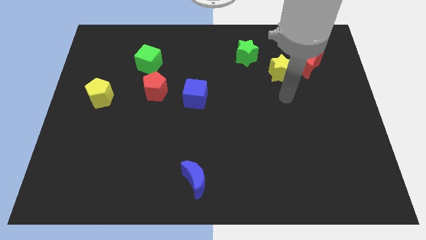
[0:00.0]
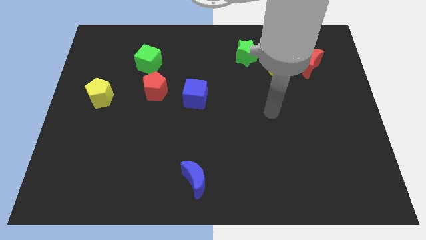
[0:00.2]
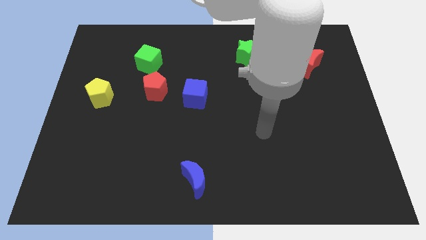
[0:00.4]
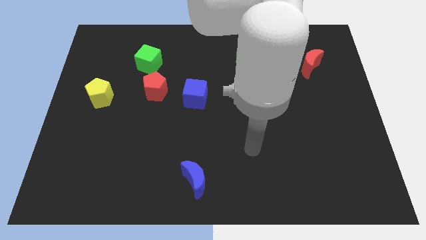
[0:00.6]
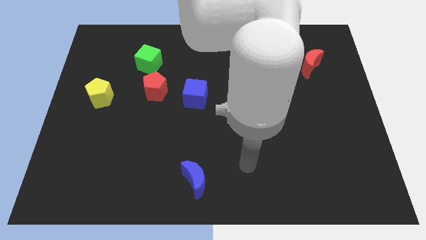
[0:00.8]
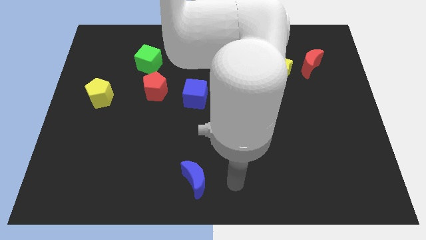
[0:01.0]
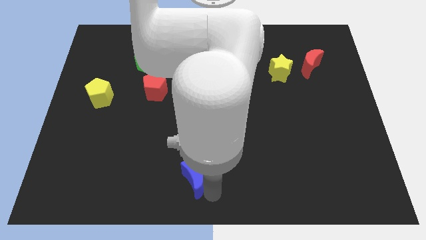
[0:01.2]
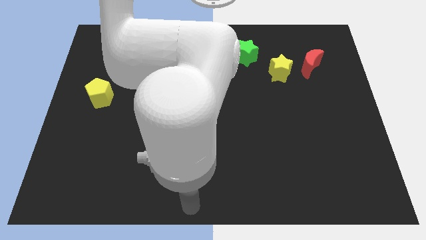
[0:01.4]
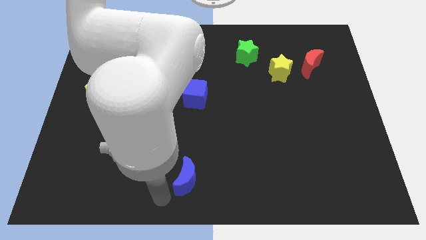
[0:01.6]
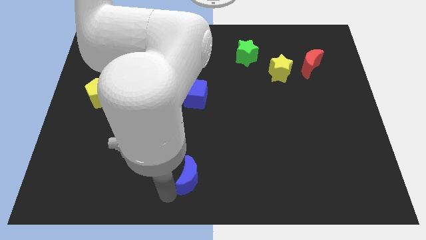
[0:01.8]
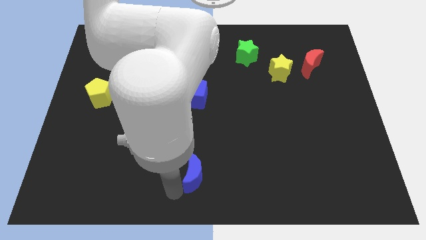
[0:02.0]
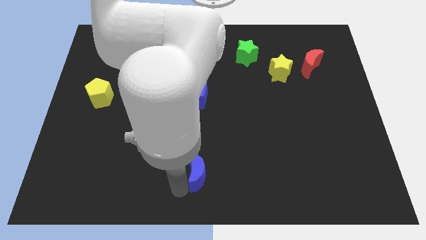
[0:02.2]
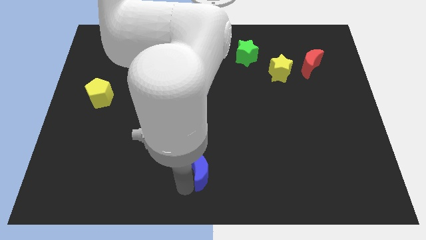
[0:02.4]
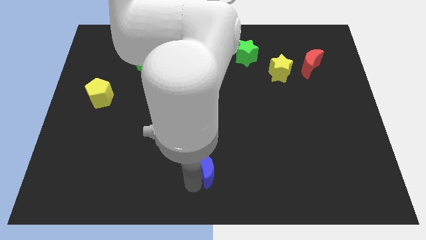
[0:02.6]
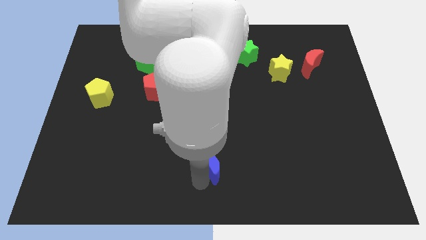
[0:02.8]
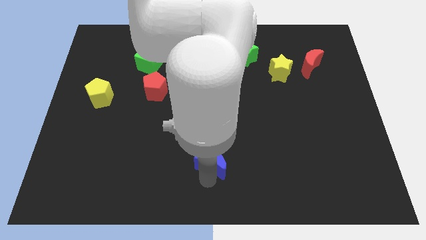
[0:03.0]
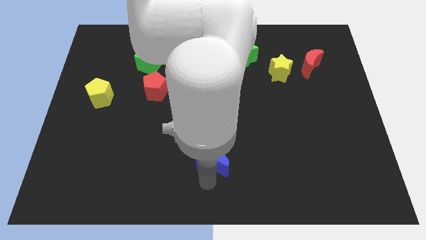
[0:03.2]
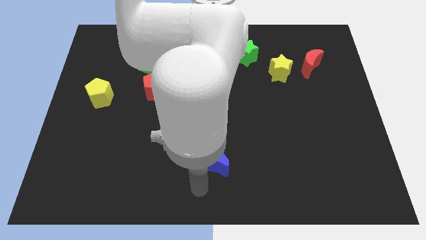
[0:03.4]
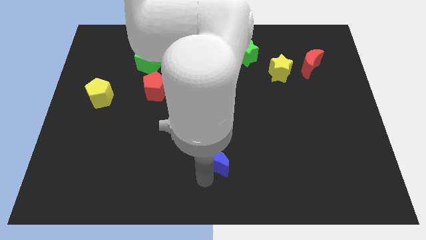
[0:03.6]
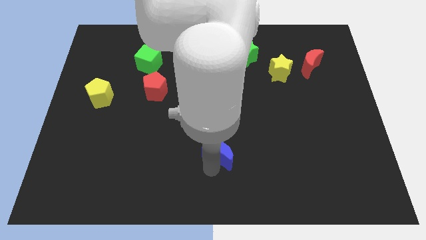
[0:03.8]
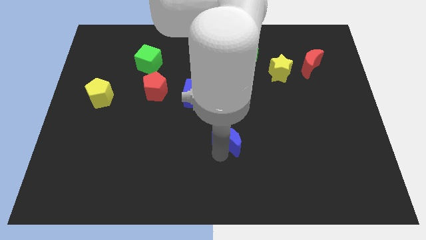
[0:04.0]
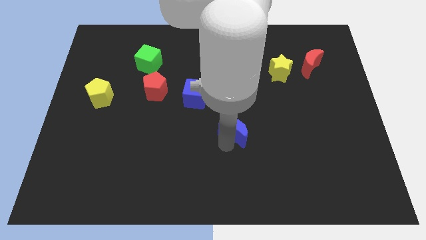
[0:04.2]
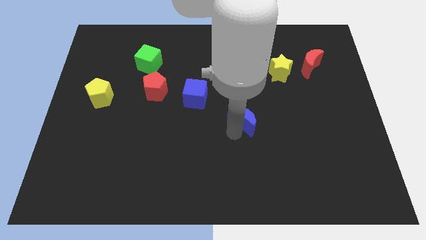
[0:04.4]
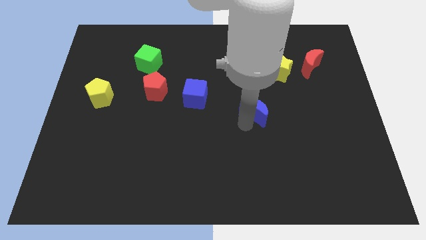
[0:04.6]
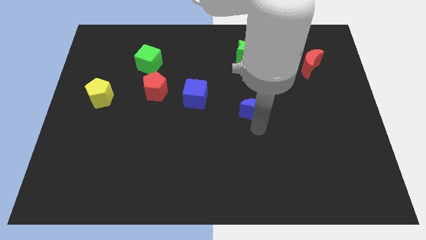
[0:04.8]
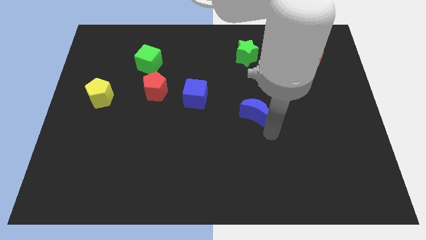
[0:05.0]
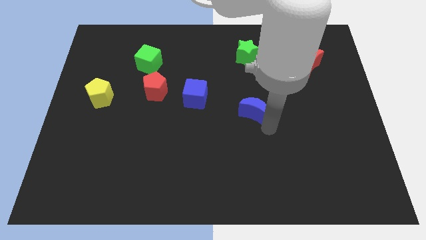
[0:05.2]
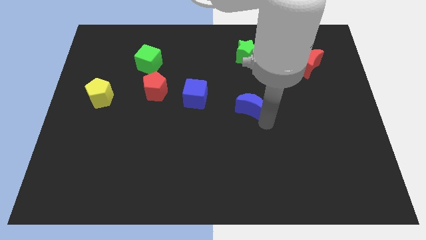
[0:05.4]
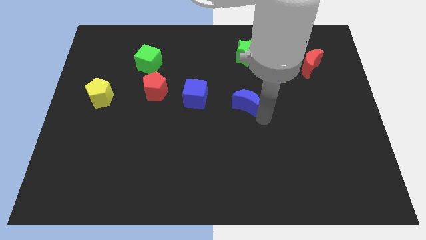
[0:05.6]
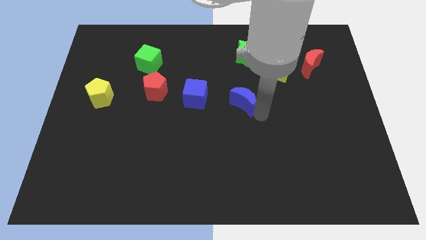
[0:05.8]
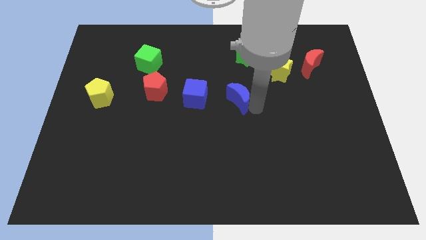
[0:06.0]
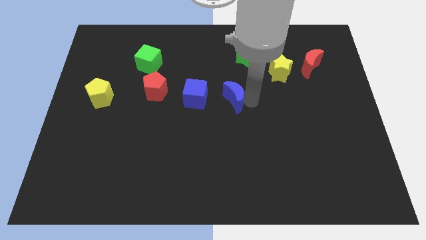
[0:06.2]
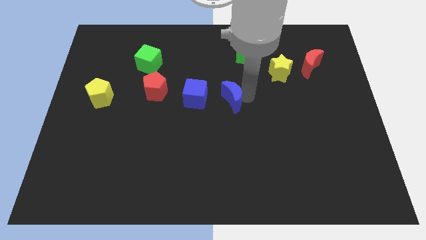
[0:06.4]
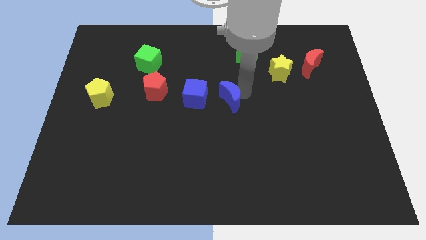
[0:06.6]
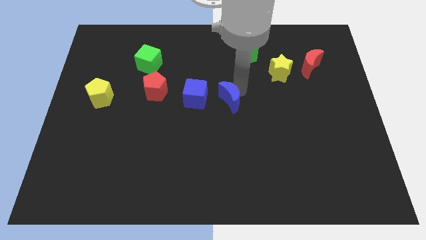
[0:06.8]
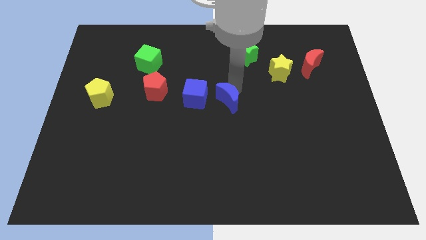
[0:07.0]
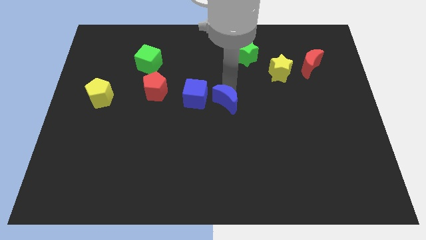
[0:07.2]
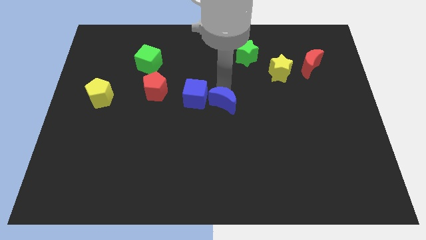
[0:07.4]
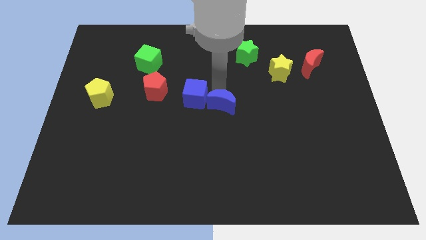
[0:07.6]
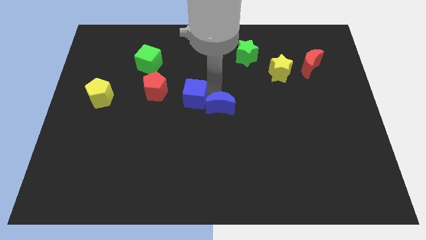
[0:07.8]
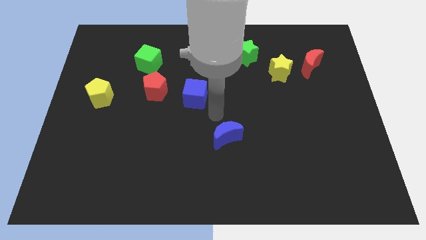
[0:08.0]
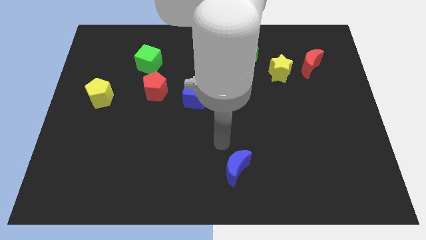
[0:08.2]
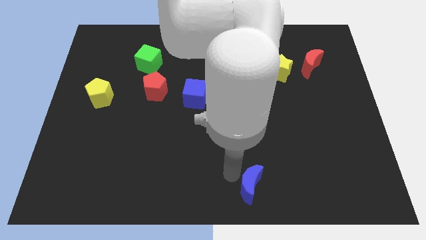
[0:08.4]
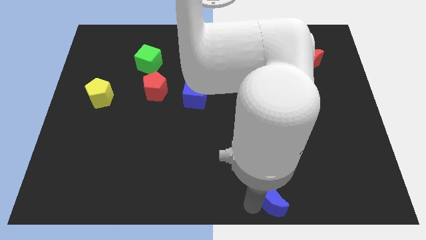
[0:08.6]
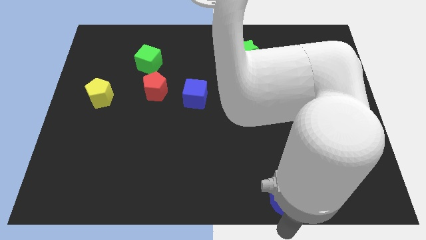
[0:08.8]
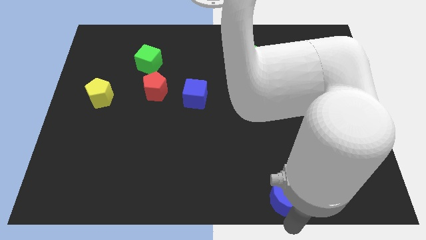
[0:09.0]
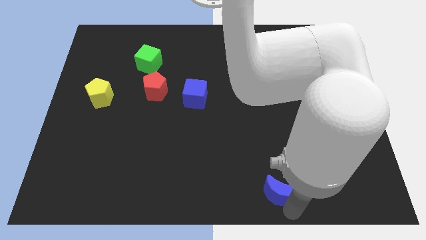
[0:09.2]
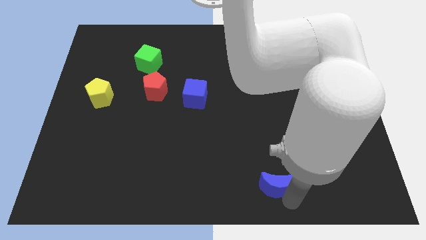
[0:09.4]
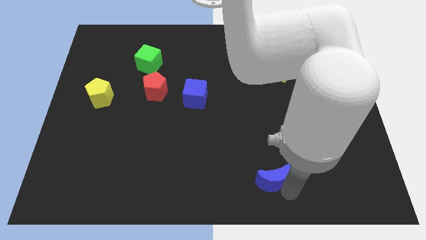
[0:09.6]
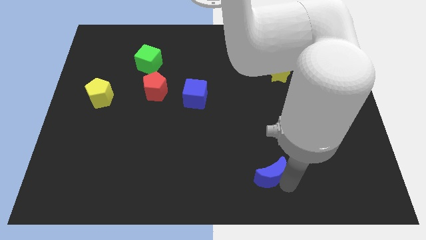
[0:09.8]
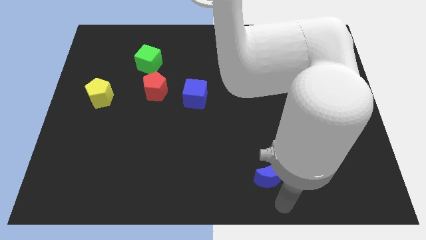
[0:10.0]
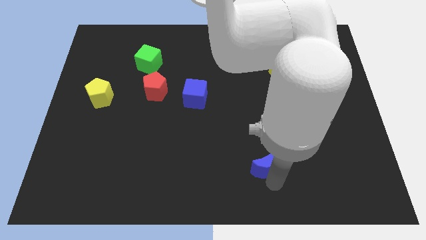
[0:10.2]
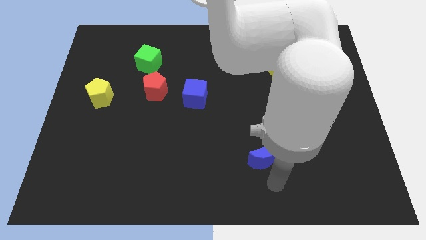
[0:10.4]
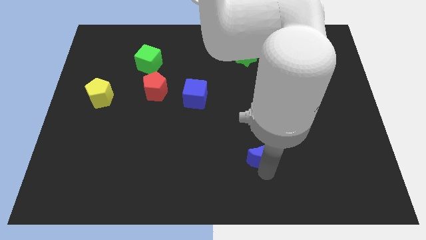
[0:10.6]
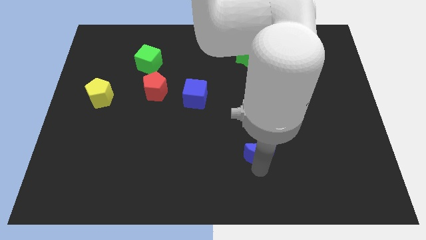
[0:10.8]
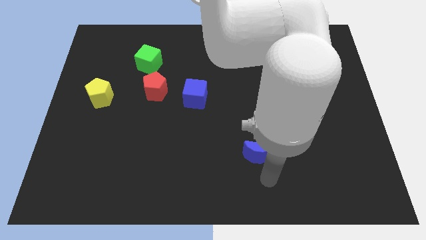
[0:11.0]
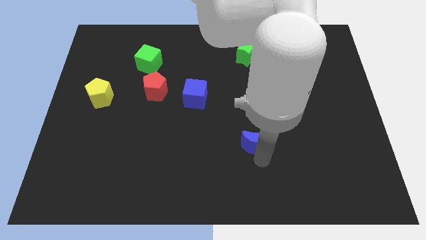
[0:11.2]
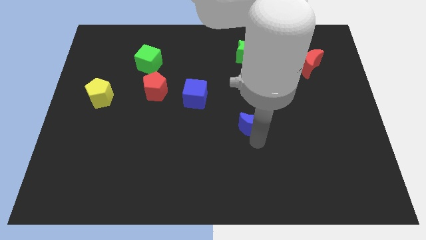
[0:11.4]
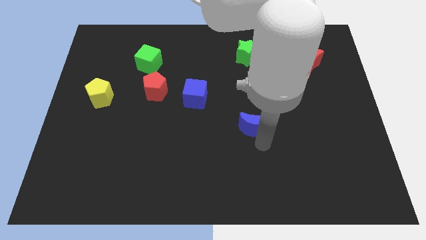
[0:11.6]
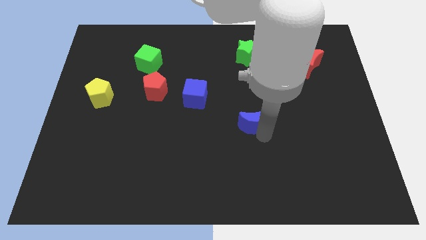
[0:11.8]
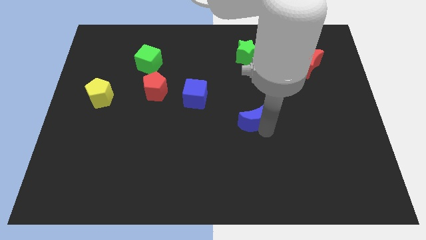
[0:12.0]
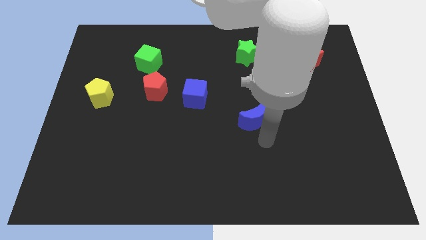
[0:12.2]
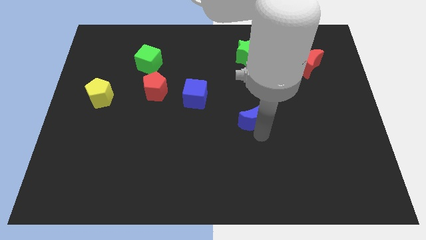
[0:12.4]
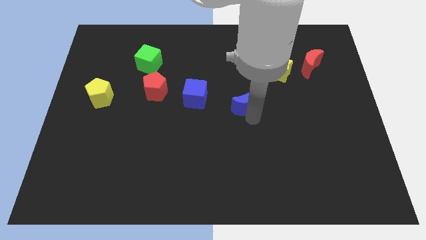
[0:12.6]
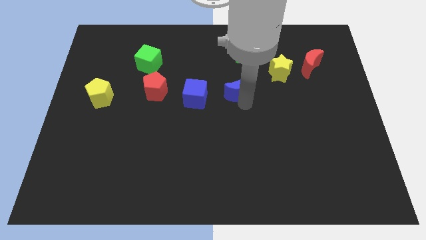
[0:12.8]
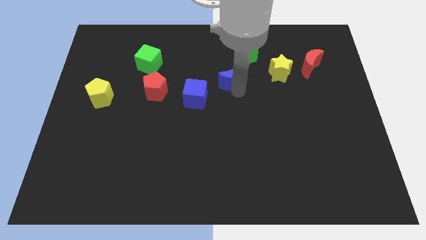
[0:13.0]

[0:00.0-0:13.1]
push the blue moon diagonally down and to the left of the green star

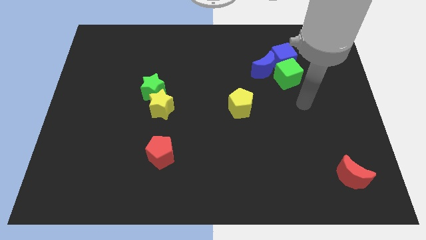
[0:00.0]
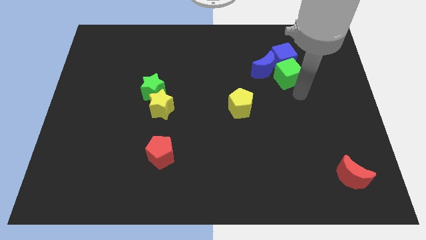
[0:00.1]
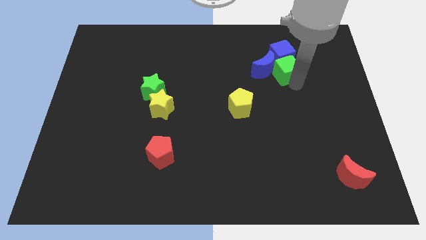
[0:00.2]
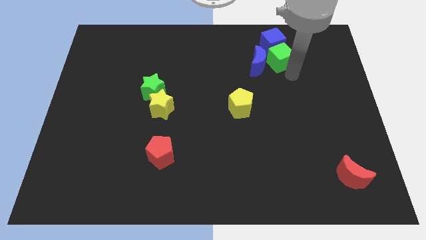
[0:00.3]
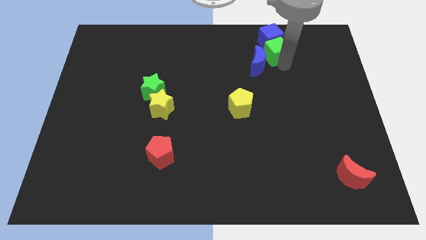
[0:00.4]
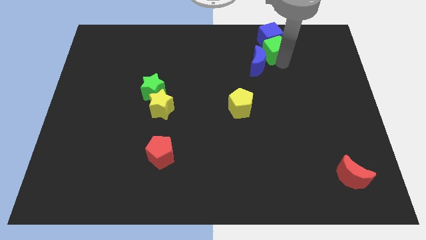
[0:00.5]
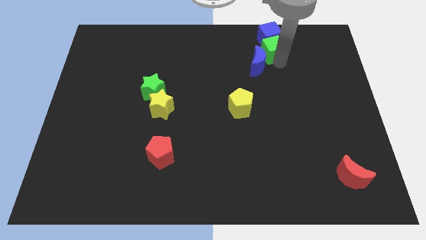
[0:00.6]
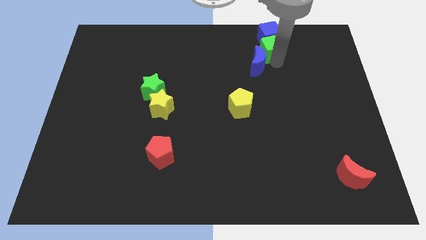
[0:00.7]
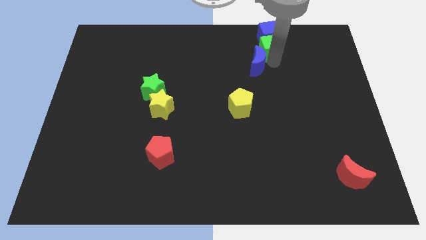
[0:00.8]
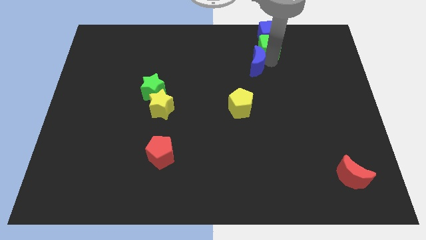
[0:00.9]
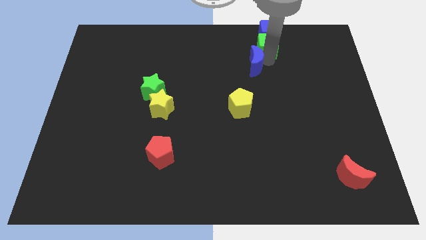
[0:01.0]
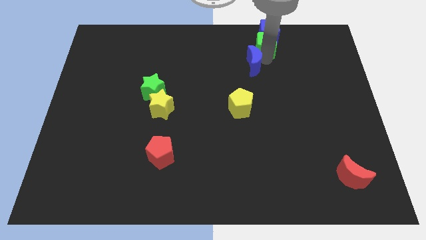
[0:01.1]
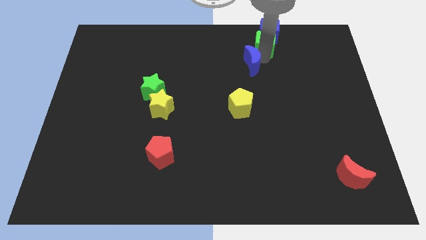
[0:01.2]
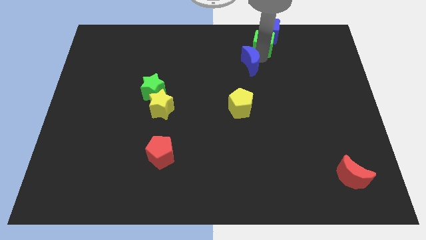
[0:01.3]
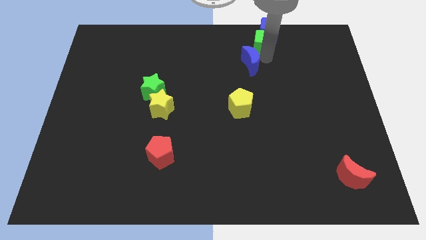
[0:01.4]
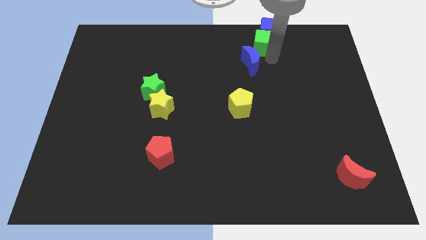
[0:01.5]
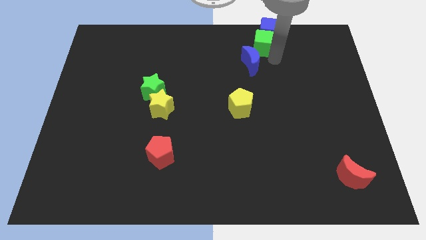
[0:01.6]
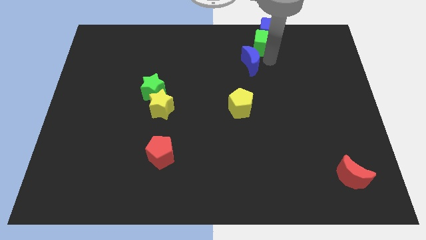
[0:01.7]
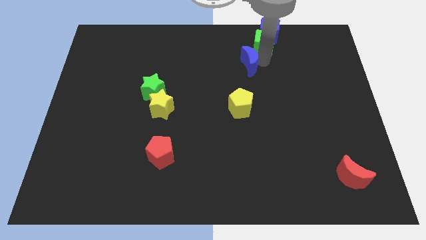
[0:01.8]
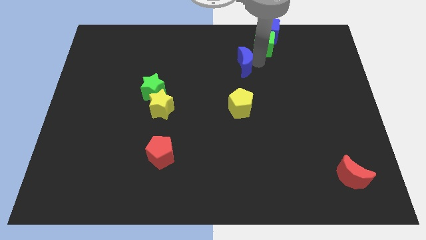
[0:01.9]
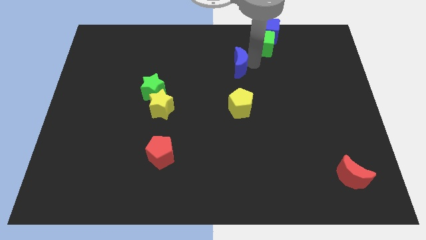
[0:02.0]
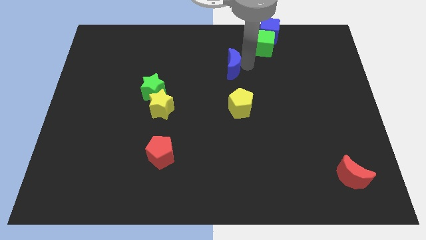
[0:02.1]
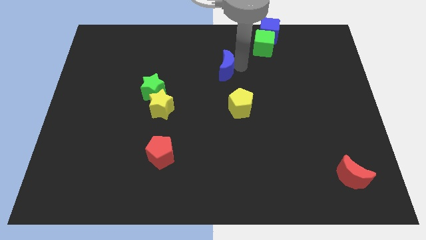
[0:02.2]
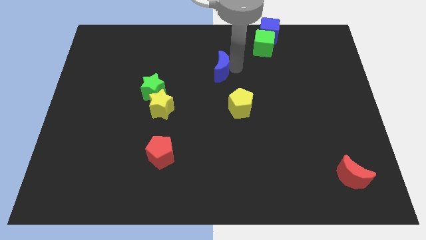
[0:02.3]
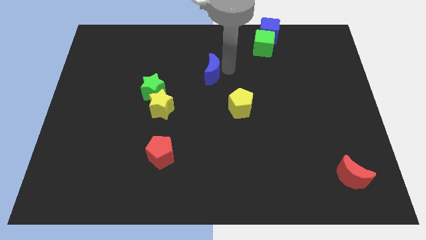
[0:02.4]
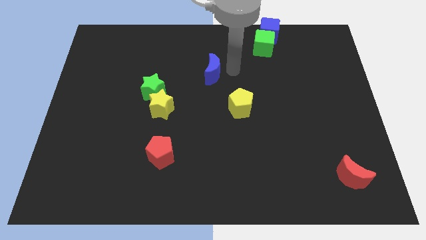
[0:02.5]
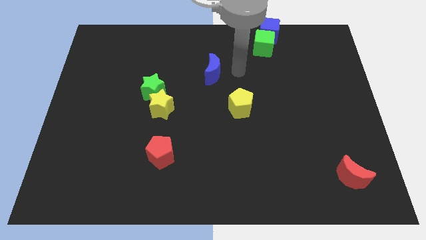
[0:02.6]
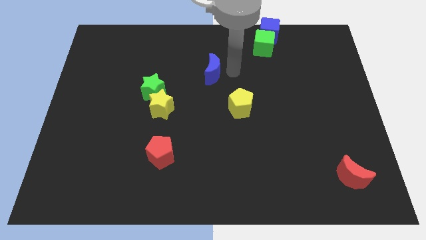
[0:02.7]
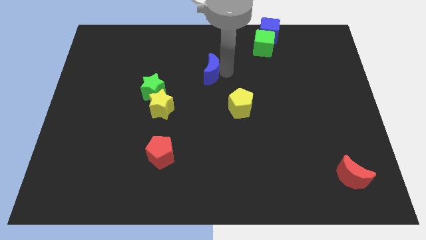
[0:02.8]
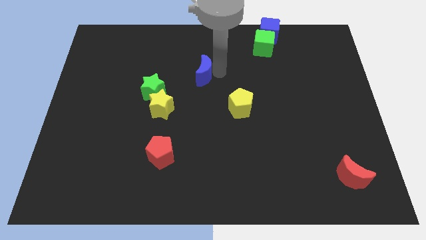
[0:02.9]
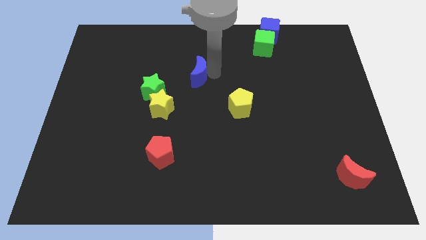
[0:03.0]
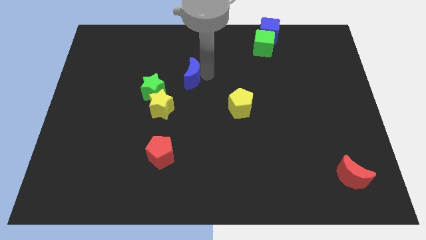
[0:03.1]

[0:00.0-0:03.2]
put the blue moon to the top right of the green star
